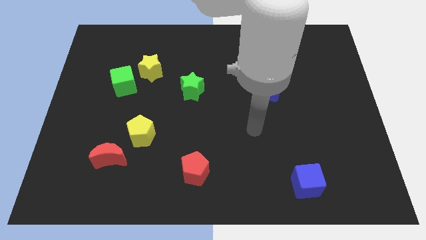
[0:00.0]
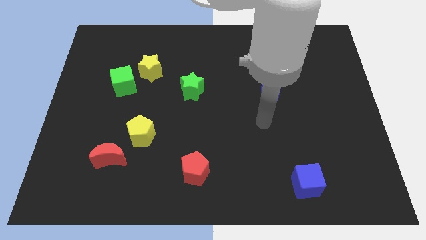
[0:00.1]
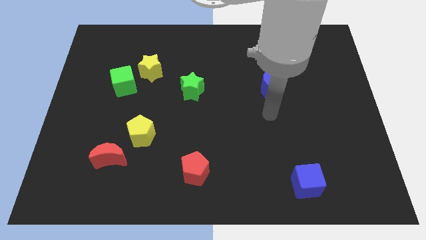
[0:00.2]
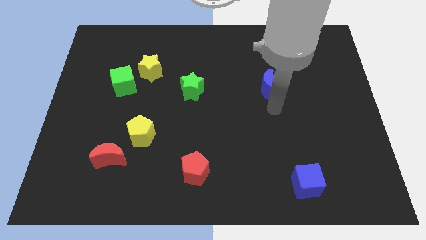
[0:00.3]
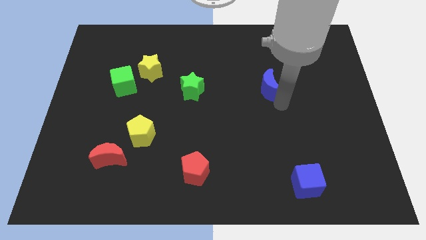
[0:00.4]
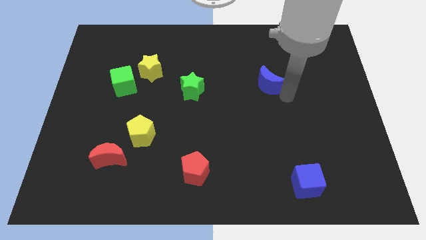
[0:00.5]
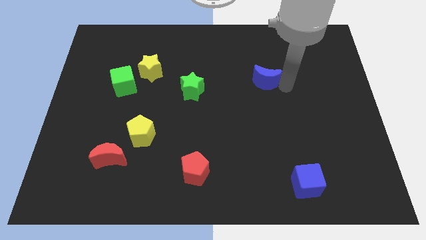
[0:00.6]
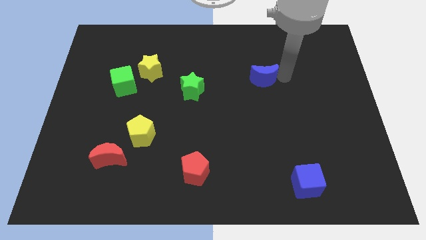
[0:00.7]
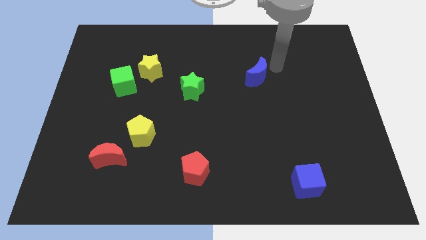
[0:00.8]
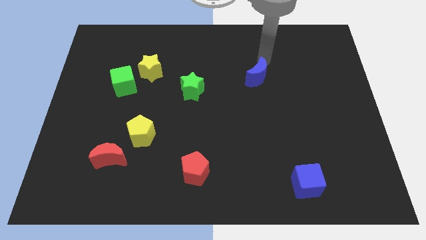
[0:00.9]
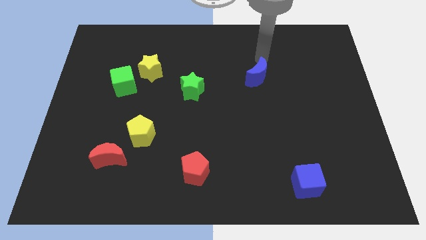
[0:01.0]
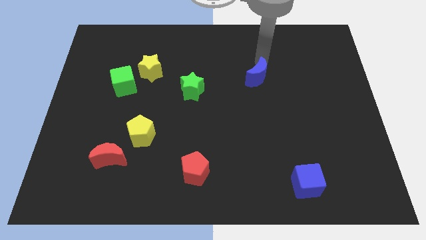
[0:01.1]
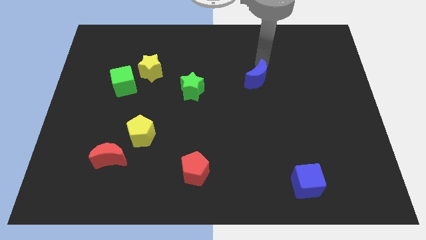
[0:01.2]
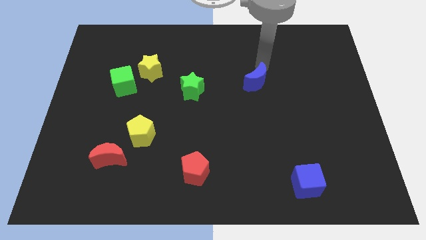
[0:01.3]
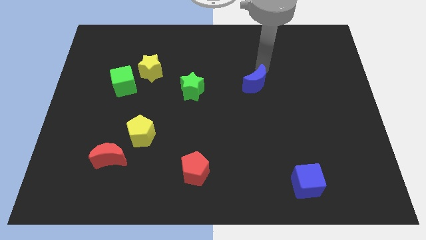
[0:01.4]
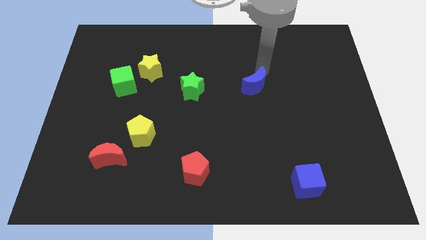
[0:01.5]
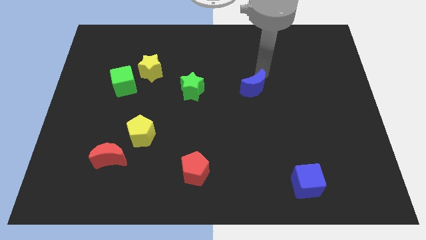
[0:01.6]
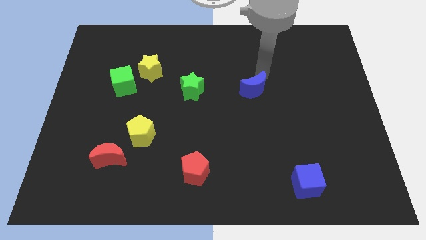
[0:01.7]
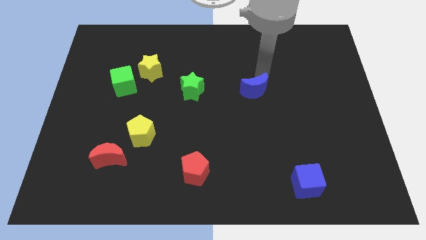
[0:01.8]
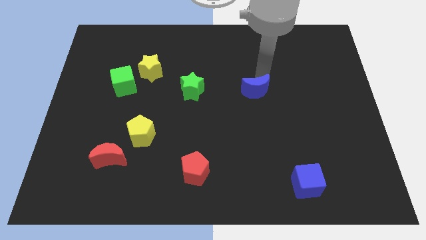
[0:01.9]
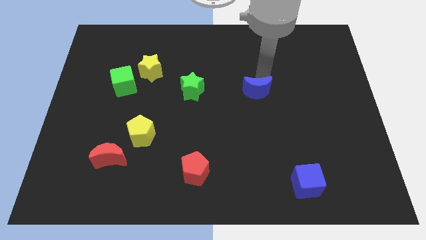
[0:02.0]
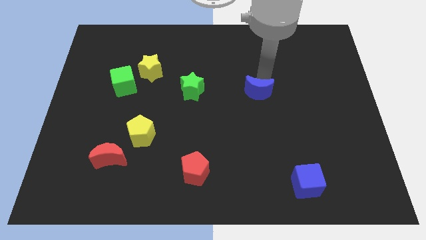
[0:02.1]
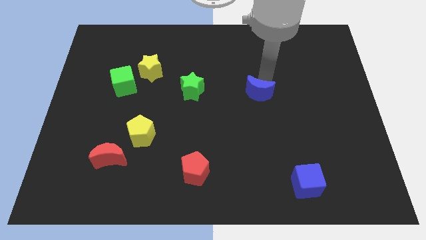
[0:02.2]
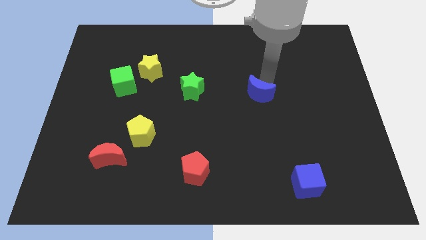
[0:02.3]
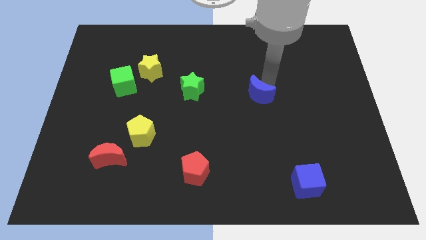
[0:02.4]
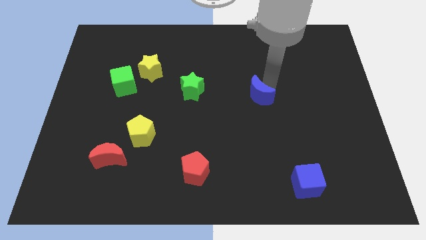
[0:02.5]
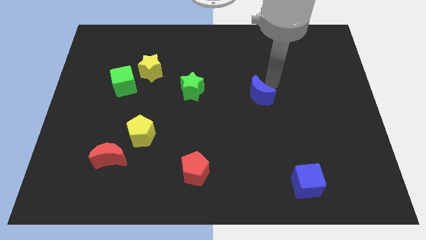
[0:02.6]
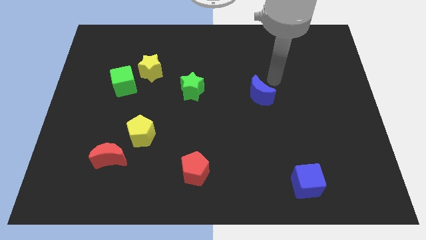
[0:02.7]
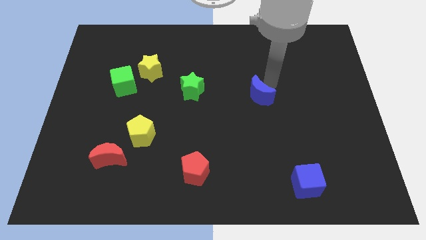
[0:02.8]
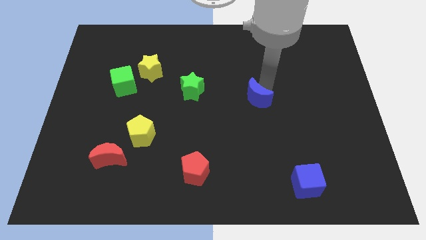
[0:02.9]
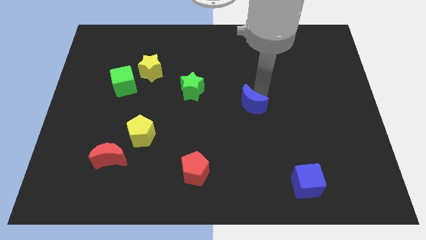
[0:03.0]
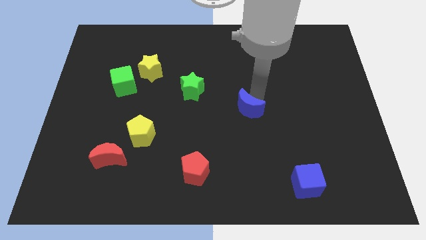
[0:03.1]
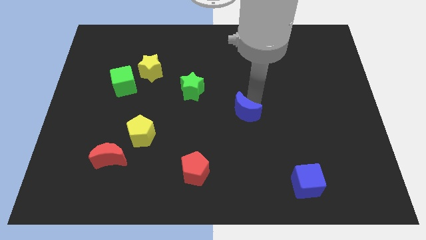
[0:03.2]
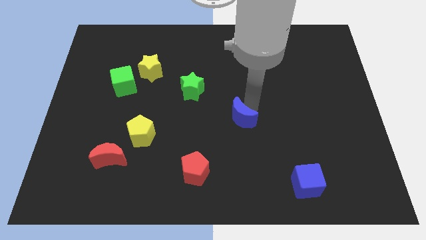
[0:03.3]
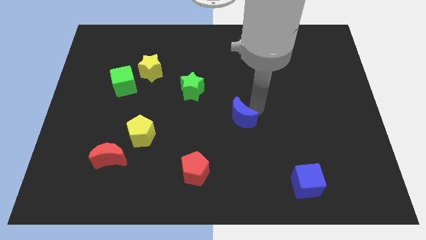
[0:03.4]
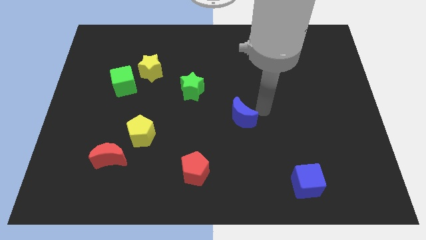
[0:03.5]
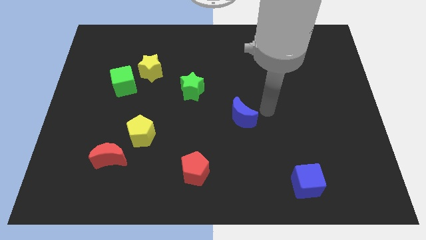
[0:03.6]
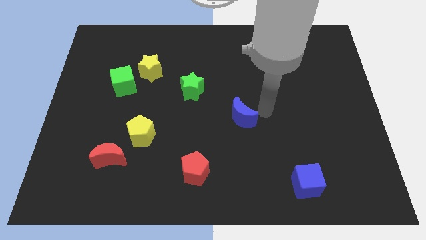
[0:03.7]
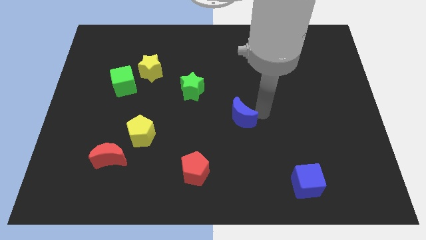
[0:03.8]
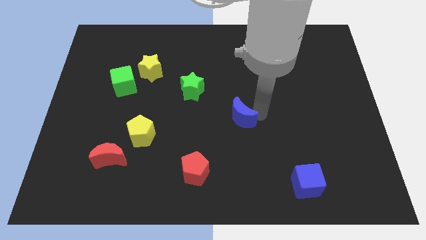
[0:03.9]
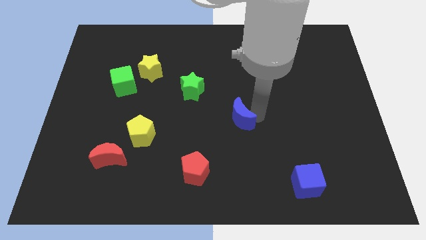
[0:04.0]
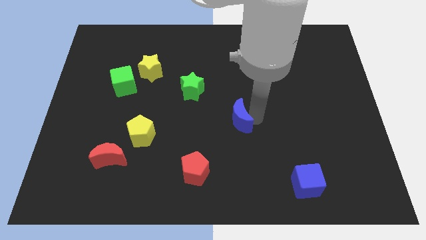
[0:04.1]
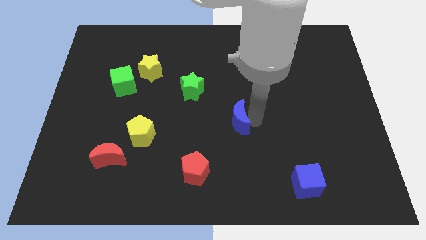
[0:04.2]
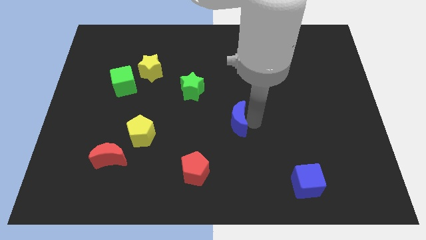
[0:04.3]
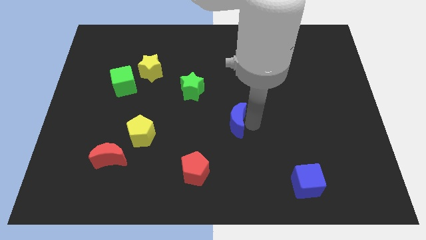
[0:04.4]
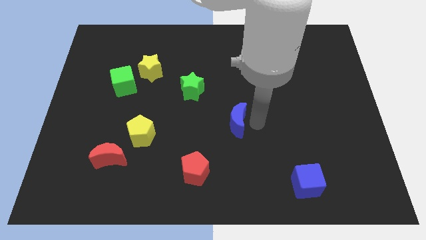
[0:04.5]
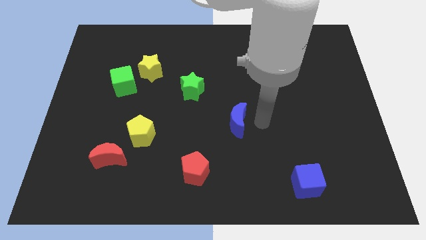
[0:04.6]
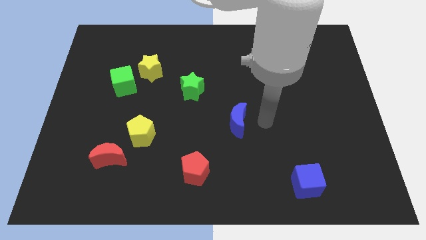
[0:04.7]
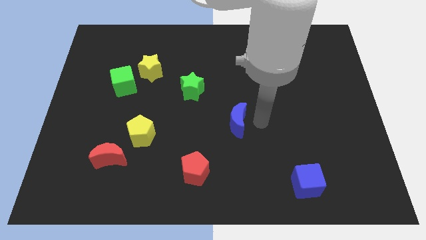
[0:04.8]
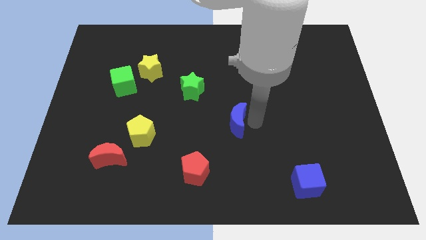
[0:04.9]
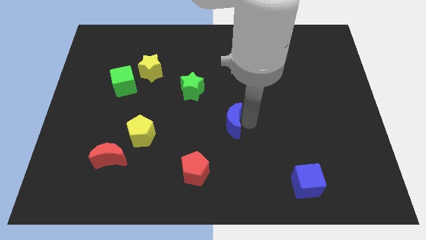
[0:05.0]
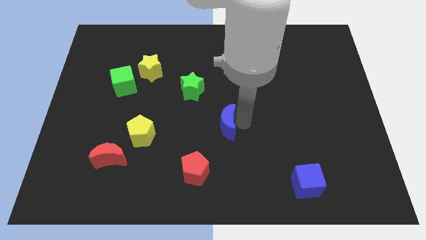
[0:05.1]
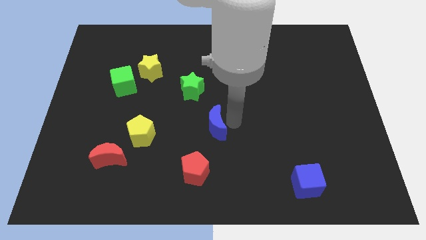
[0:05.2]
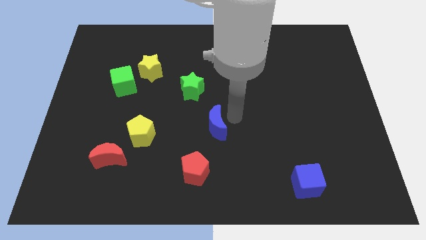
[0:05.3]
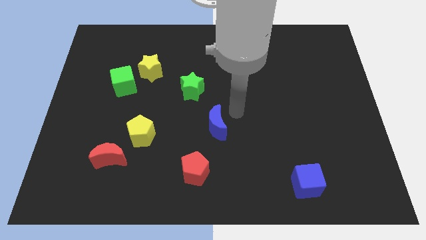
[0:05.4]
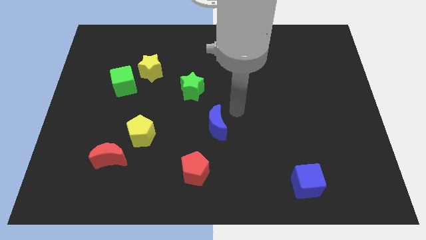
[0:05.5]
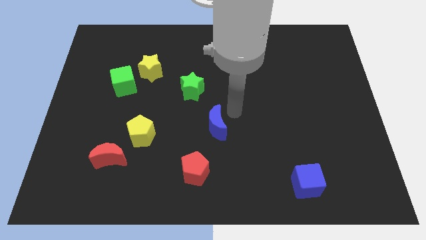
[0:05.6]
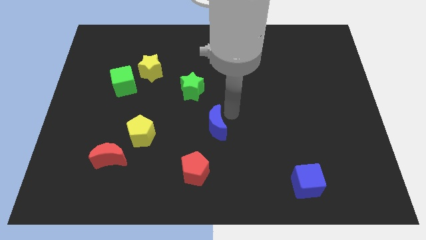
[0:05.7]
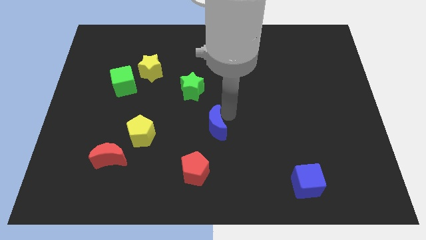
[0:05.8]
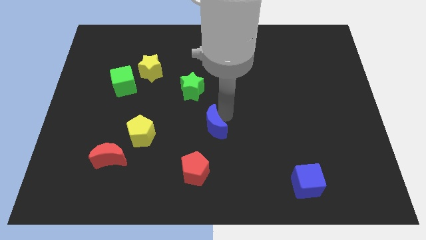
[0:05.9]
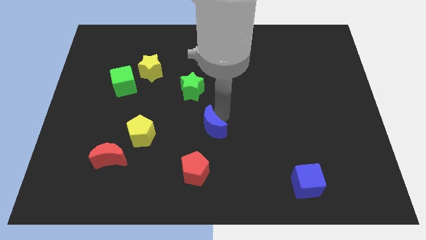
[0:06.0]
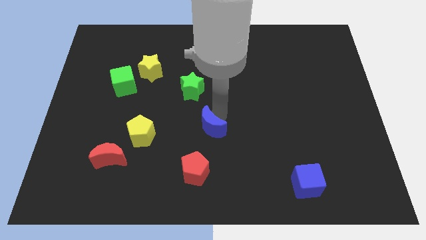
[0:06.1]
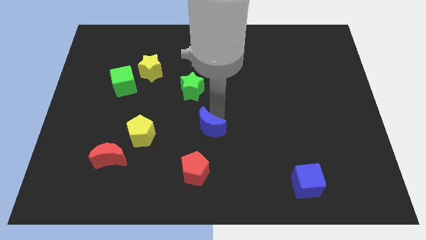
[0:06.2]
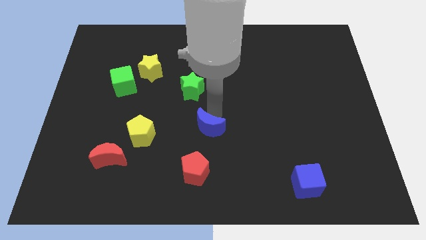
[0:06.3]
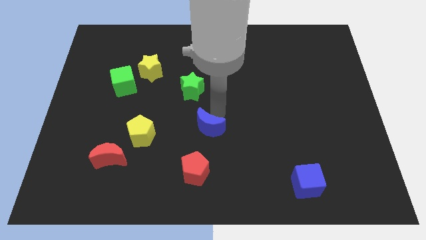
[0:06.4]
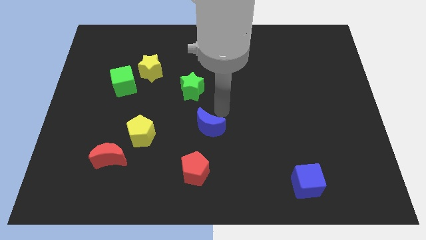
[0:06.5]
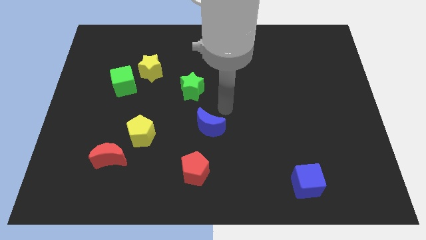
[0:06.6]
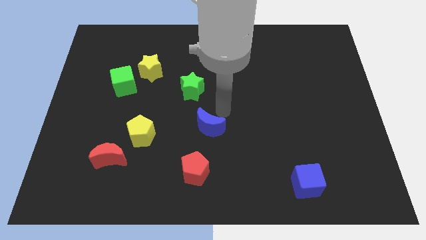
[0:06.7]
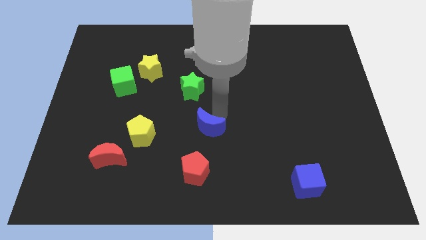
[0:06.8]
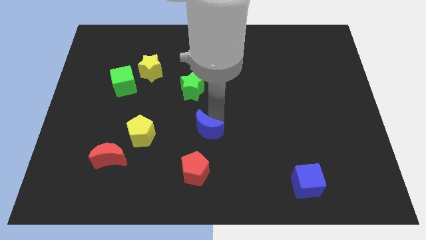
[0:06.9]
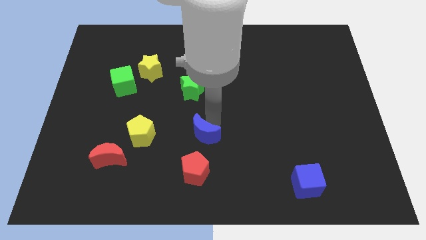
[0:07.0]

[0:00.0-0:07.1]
push the blue moon diagonally downwards and left

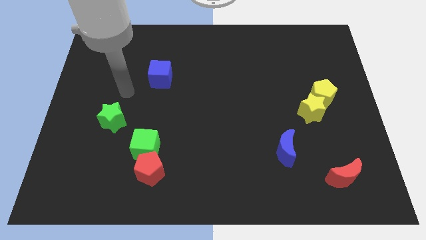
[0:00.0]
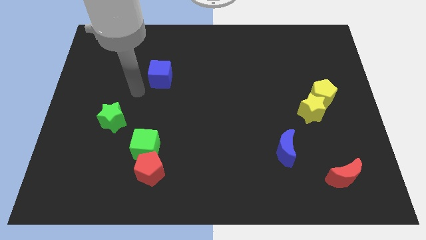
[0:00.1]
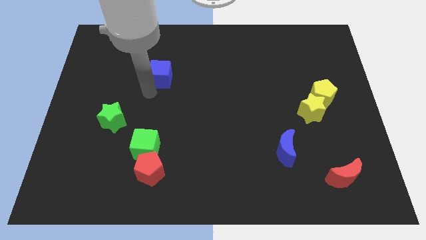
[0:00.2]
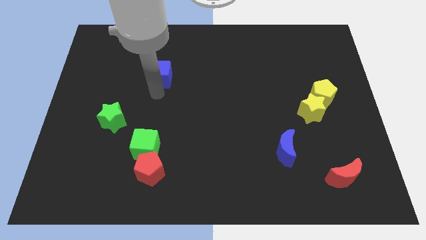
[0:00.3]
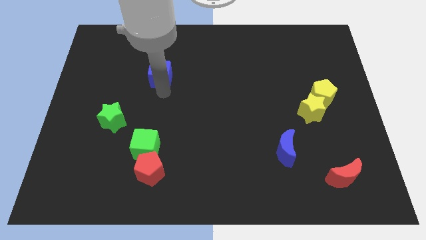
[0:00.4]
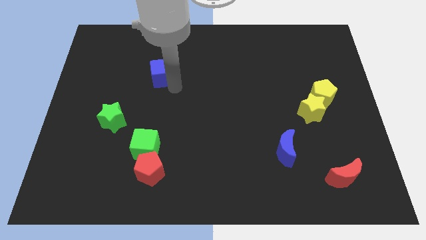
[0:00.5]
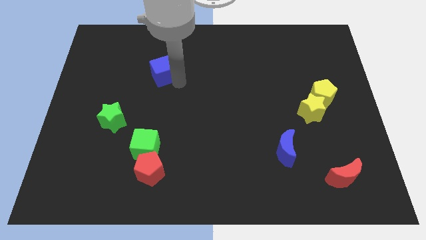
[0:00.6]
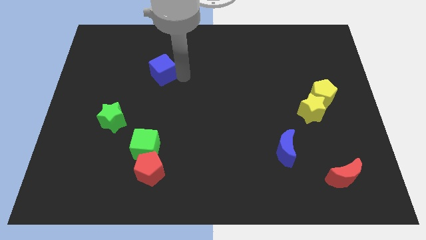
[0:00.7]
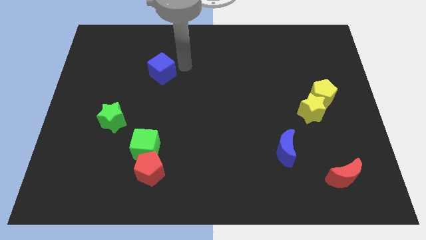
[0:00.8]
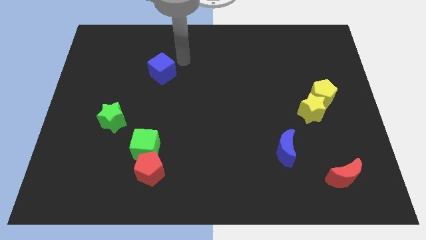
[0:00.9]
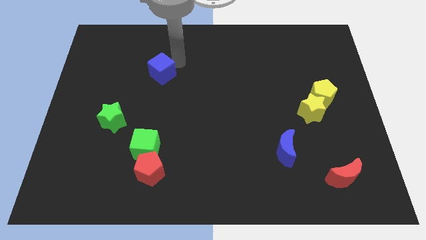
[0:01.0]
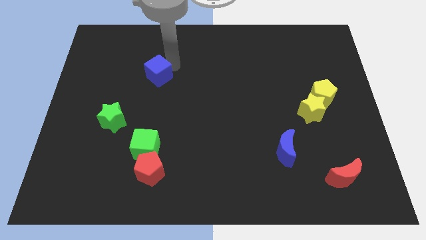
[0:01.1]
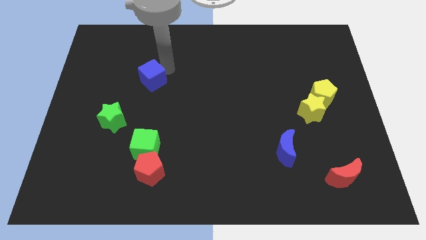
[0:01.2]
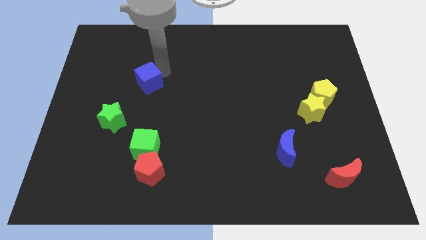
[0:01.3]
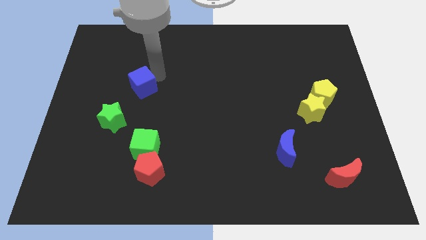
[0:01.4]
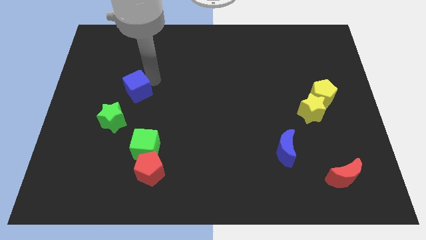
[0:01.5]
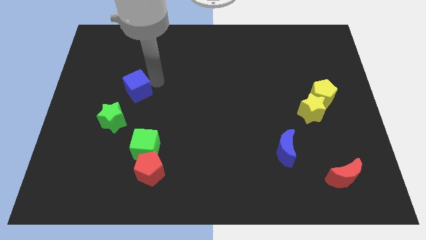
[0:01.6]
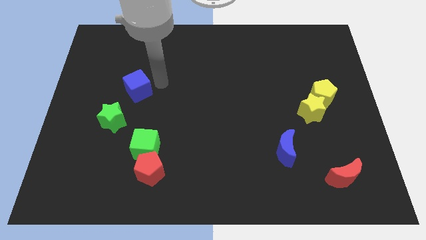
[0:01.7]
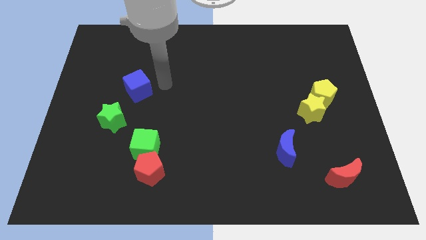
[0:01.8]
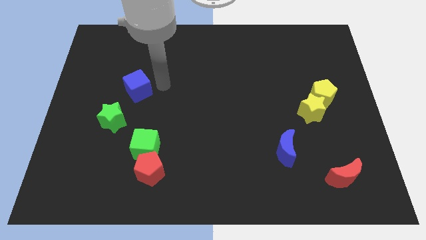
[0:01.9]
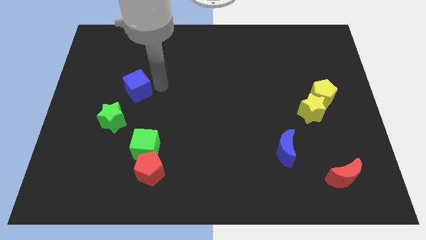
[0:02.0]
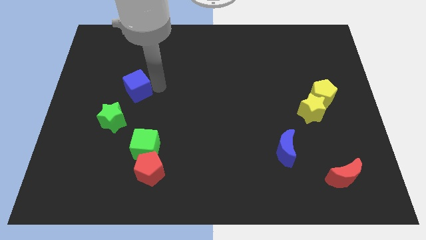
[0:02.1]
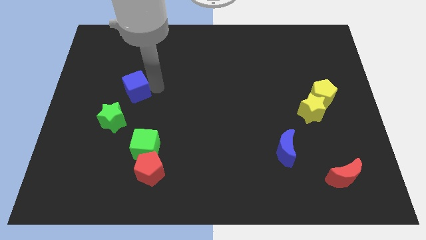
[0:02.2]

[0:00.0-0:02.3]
slightly slide the blue cube downwards and to the left diagonally
